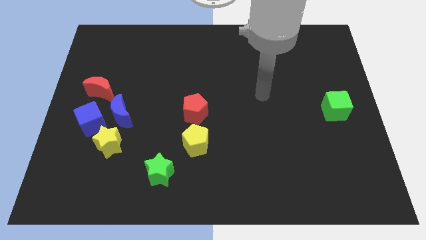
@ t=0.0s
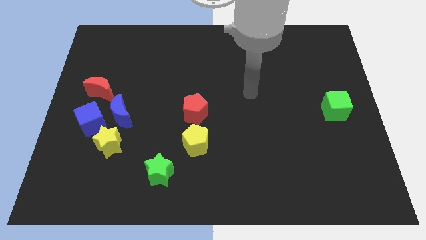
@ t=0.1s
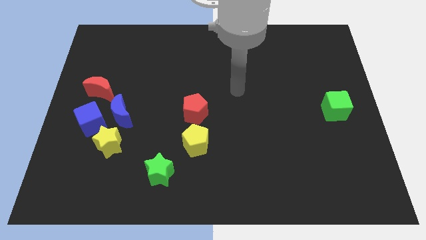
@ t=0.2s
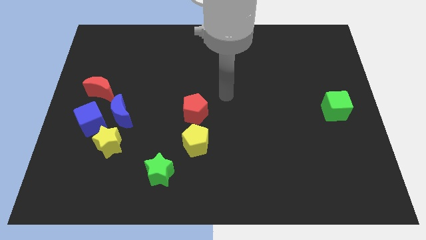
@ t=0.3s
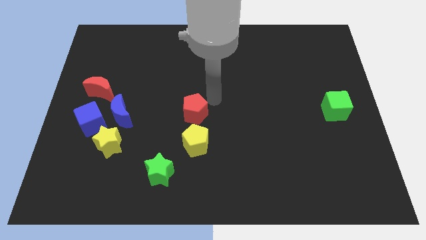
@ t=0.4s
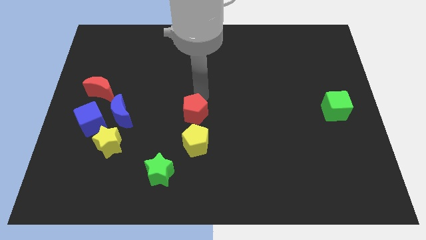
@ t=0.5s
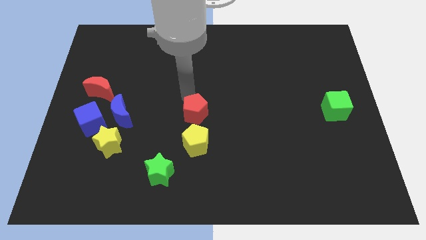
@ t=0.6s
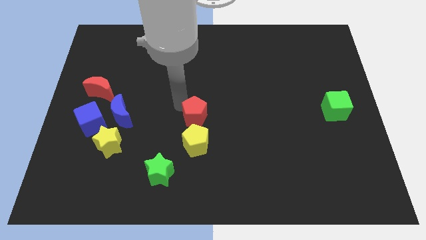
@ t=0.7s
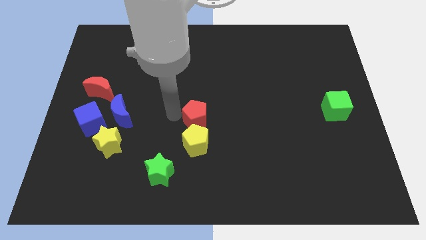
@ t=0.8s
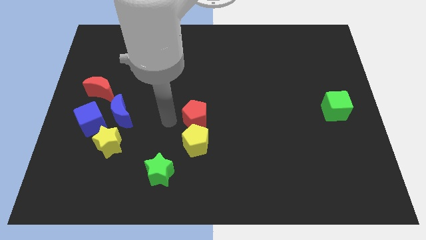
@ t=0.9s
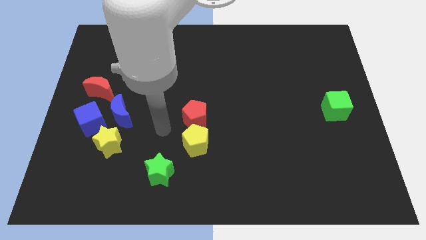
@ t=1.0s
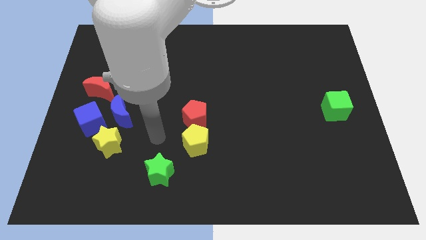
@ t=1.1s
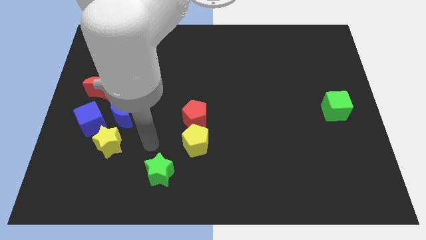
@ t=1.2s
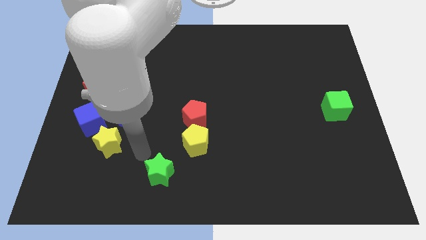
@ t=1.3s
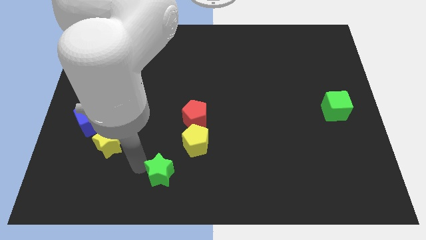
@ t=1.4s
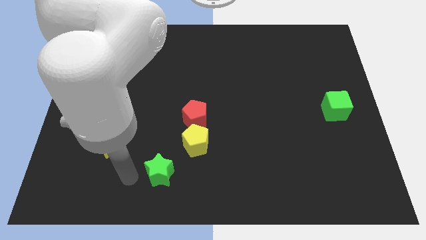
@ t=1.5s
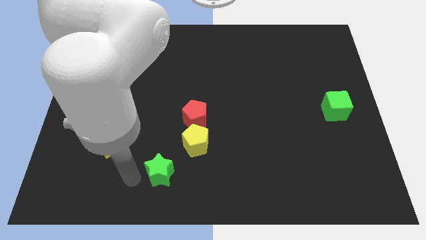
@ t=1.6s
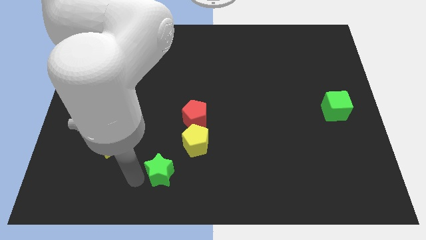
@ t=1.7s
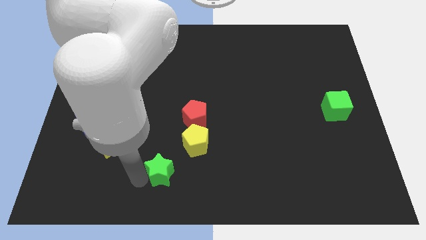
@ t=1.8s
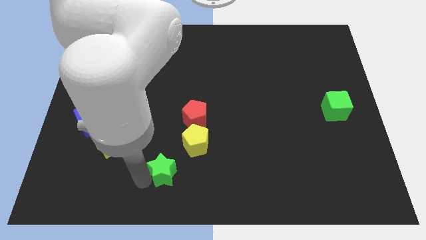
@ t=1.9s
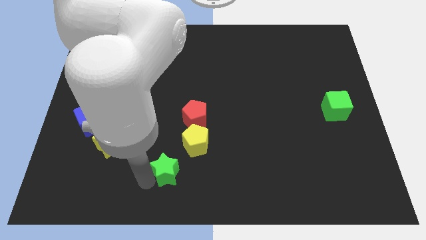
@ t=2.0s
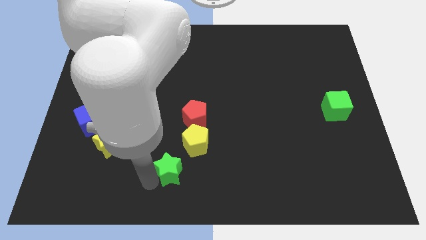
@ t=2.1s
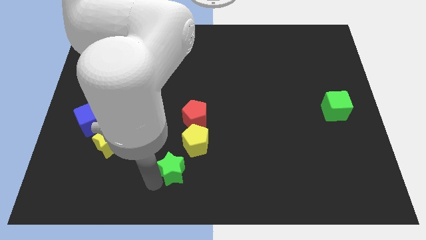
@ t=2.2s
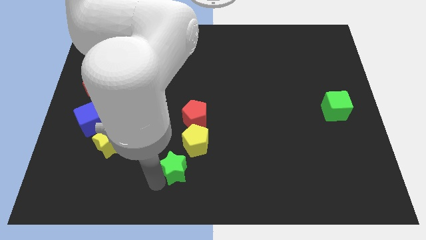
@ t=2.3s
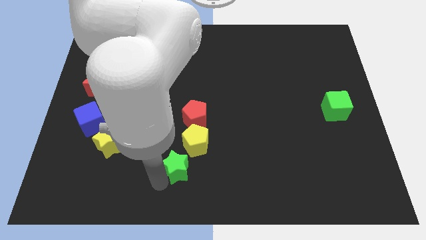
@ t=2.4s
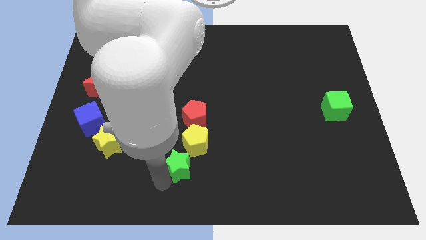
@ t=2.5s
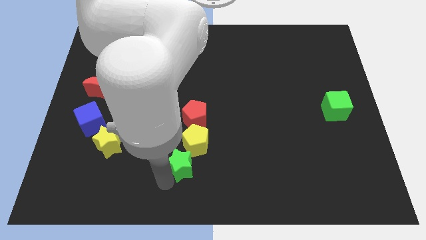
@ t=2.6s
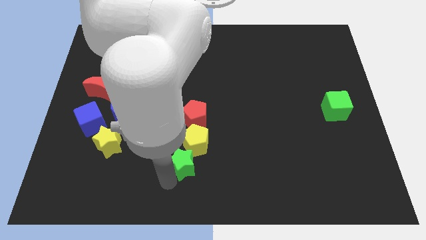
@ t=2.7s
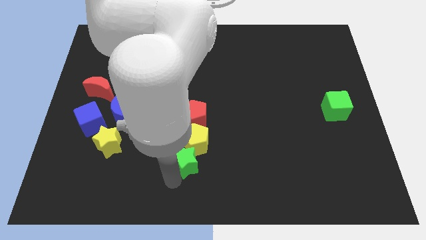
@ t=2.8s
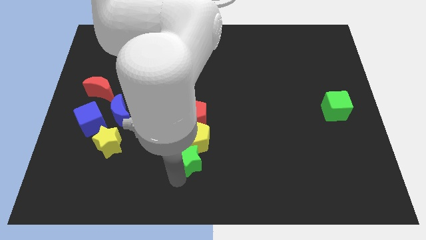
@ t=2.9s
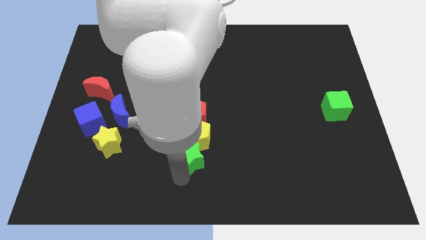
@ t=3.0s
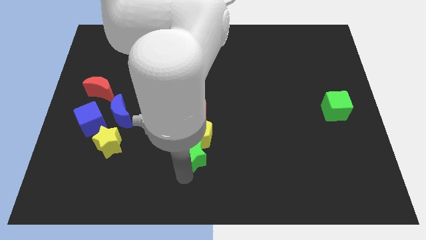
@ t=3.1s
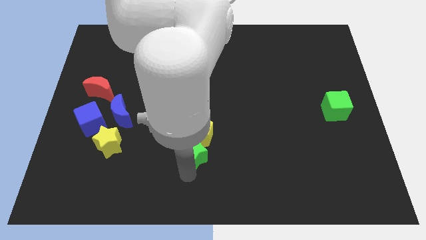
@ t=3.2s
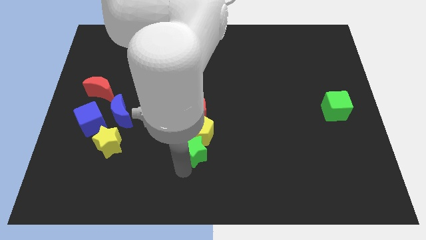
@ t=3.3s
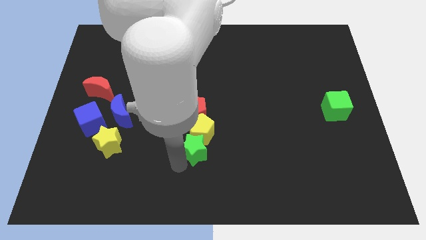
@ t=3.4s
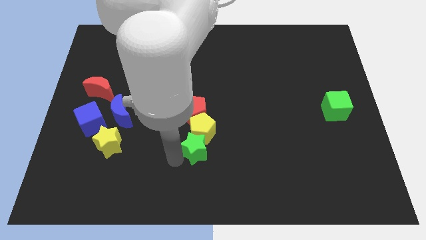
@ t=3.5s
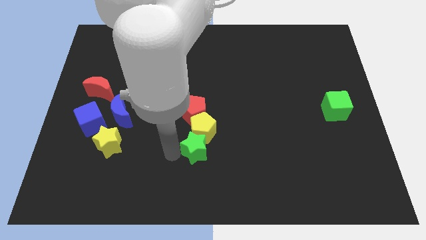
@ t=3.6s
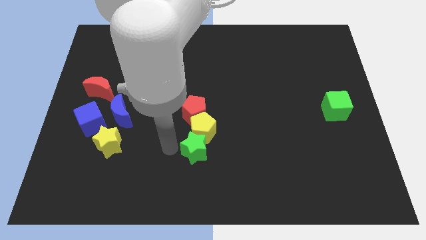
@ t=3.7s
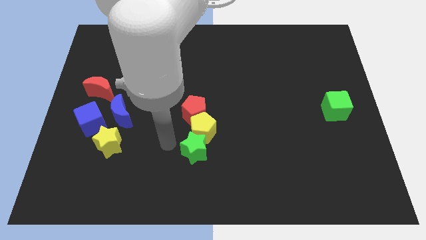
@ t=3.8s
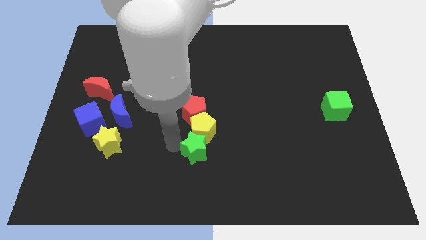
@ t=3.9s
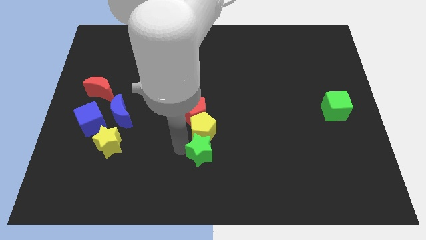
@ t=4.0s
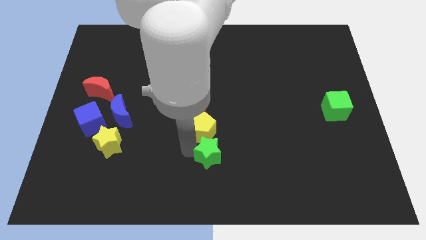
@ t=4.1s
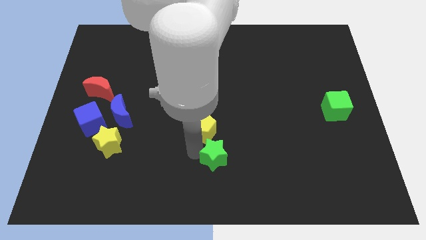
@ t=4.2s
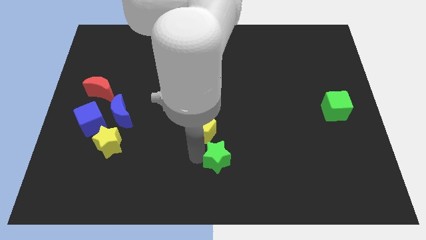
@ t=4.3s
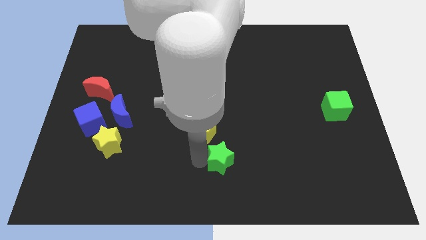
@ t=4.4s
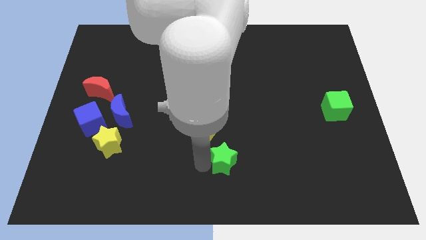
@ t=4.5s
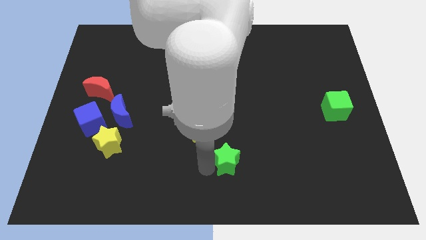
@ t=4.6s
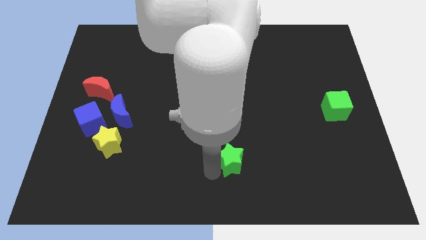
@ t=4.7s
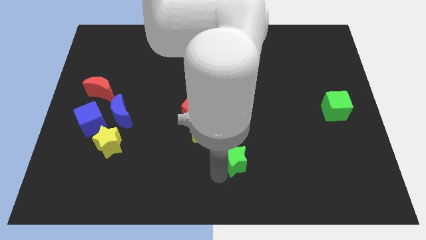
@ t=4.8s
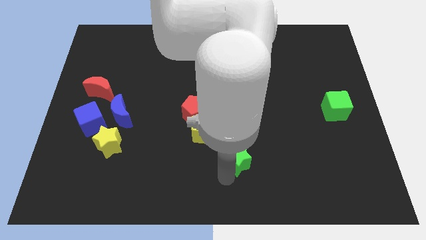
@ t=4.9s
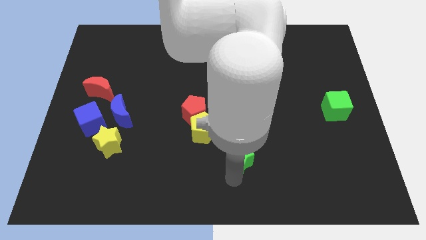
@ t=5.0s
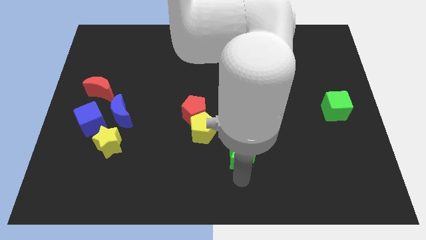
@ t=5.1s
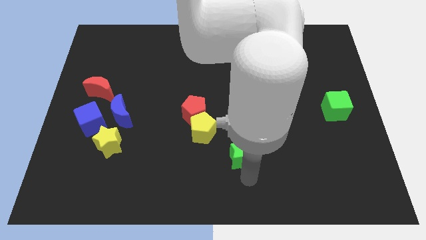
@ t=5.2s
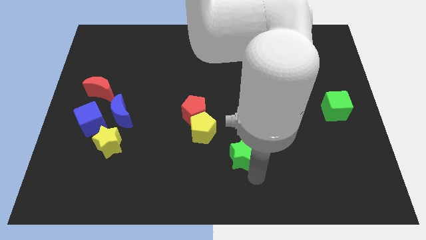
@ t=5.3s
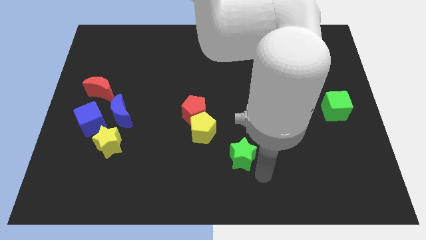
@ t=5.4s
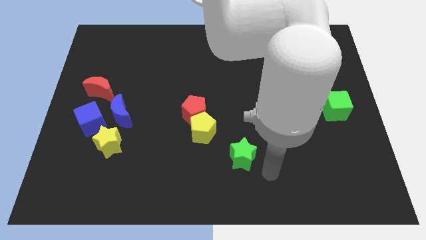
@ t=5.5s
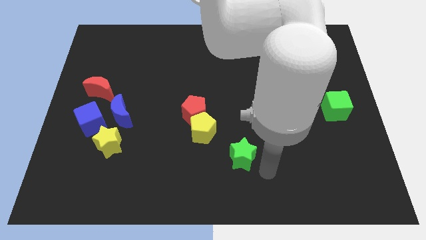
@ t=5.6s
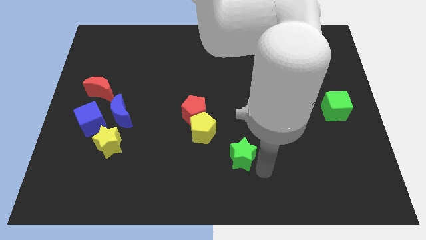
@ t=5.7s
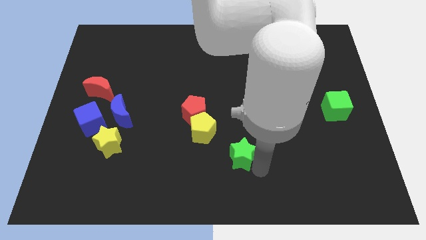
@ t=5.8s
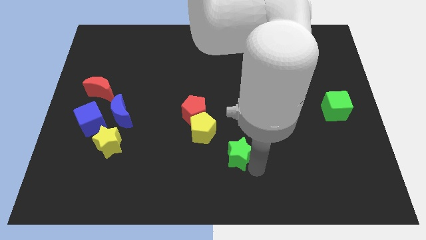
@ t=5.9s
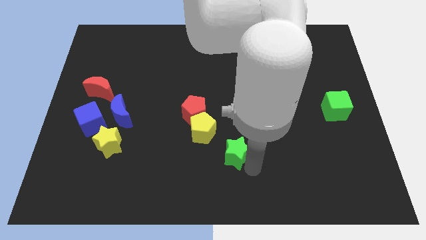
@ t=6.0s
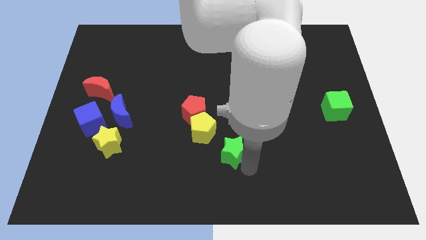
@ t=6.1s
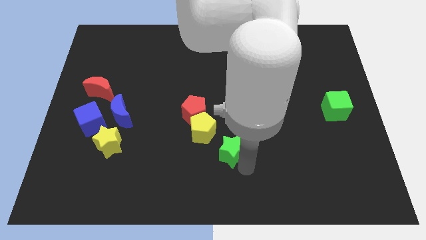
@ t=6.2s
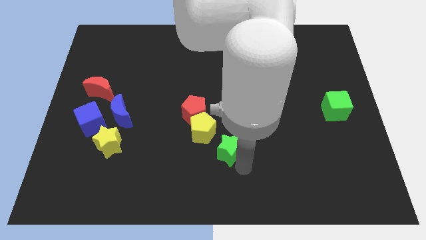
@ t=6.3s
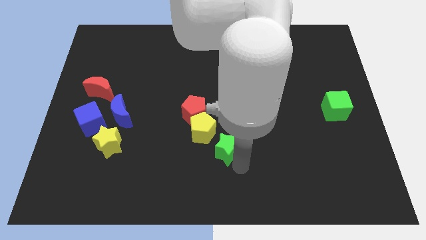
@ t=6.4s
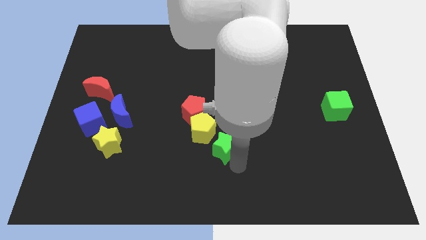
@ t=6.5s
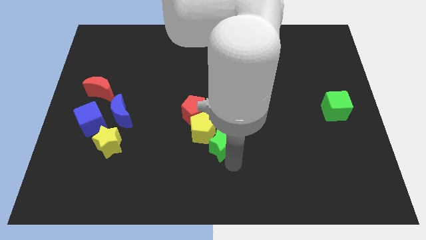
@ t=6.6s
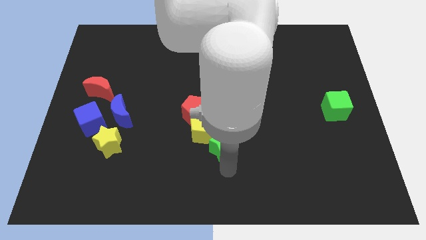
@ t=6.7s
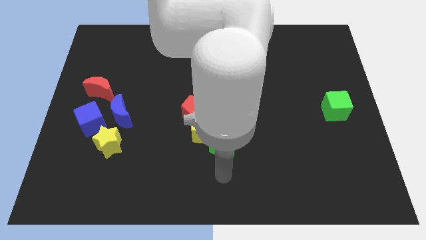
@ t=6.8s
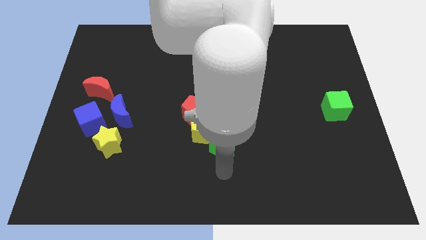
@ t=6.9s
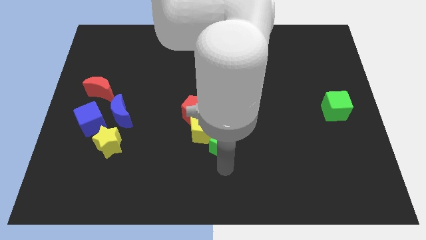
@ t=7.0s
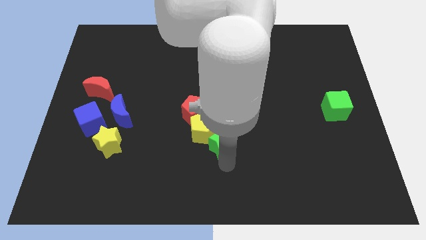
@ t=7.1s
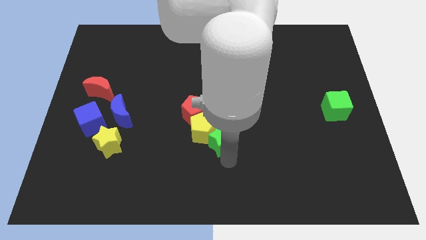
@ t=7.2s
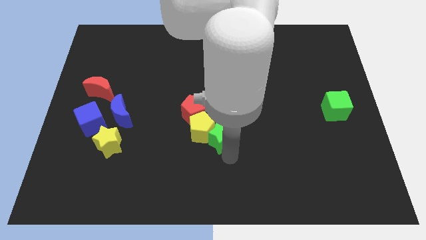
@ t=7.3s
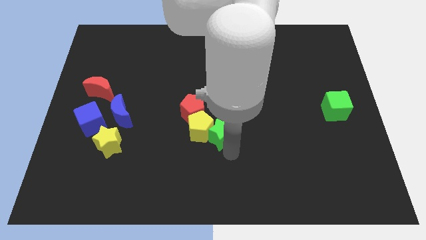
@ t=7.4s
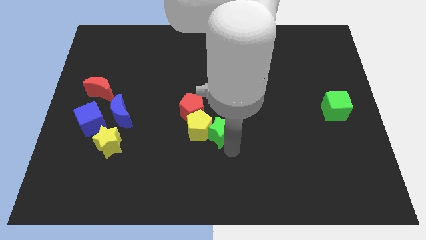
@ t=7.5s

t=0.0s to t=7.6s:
push the green star to the top right side of the yellow pentagon
